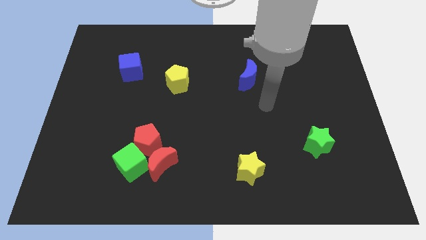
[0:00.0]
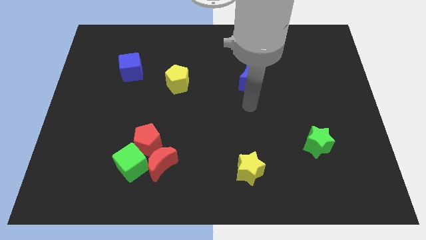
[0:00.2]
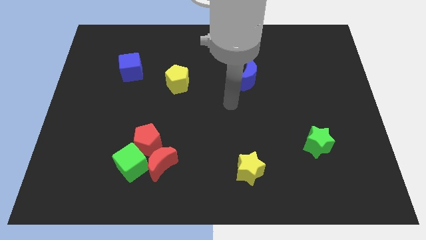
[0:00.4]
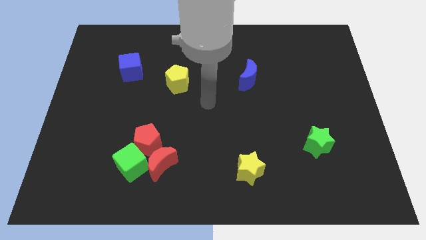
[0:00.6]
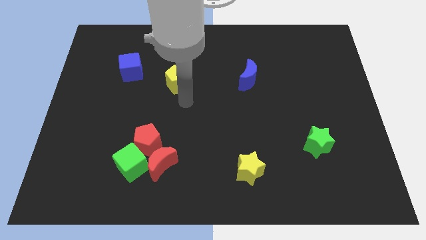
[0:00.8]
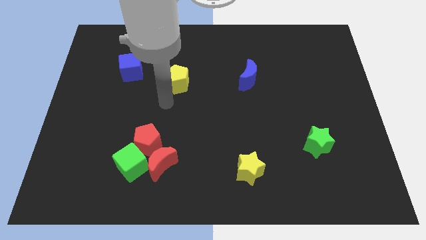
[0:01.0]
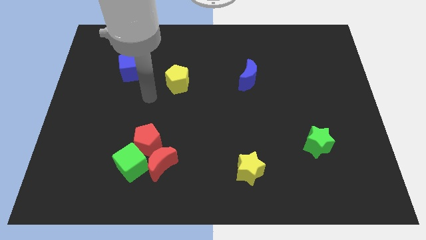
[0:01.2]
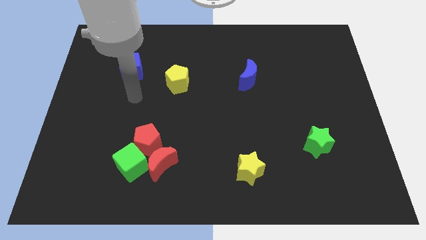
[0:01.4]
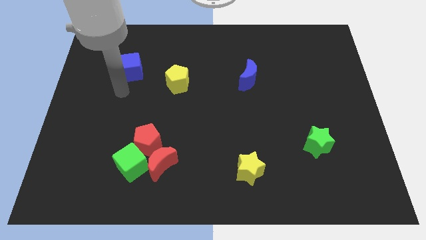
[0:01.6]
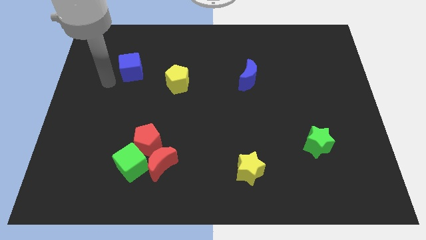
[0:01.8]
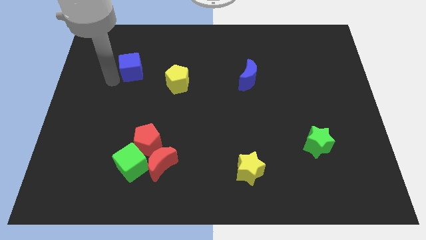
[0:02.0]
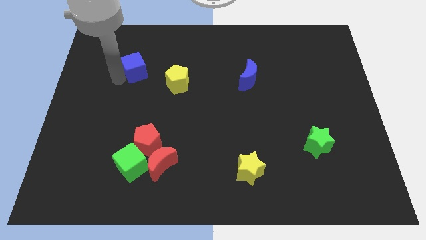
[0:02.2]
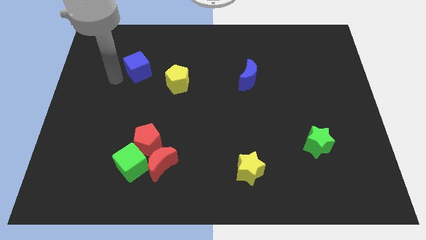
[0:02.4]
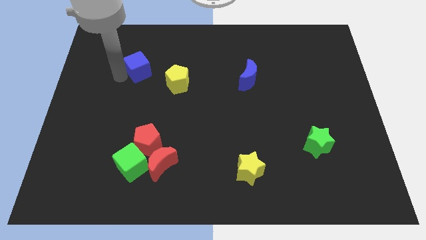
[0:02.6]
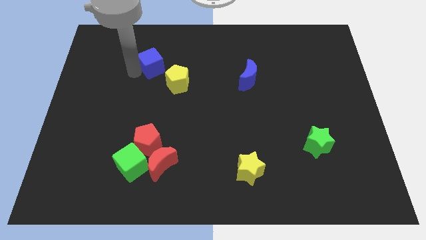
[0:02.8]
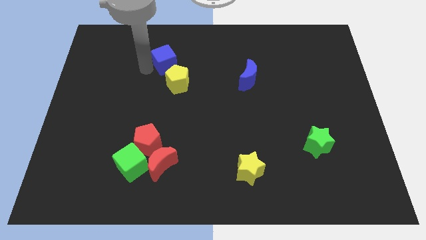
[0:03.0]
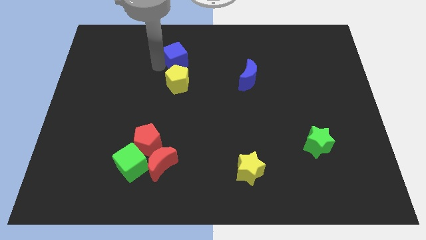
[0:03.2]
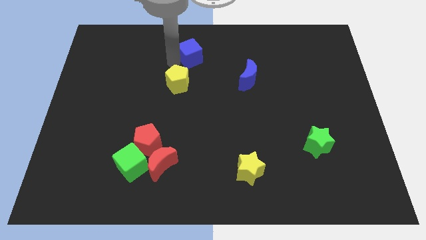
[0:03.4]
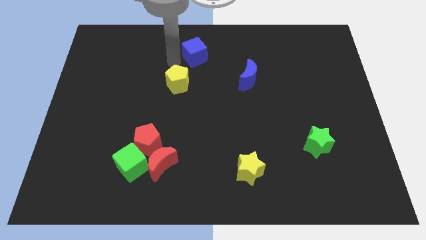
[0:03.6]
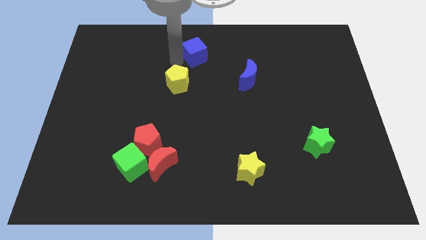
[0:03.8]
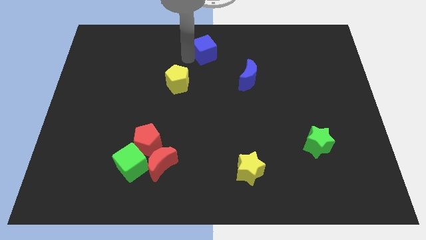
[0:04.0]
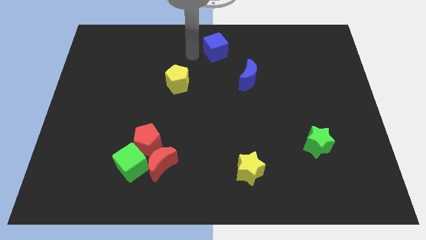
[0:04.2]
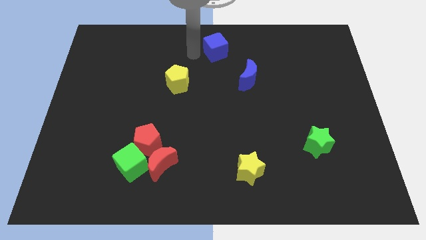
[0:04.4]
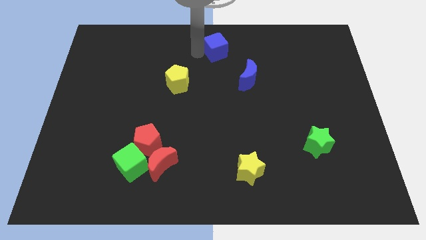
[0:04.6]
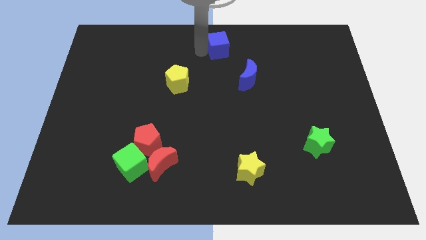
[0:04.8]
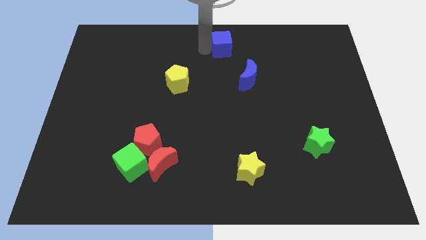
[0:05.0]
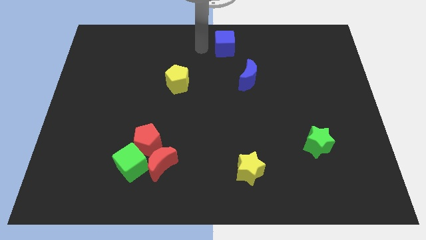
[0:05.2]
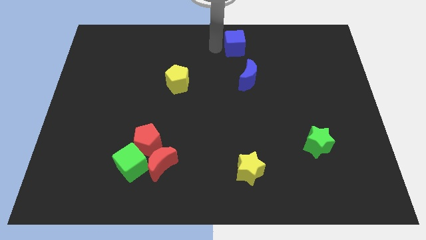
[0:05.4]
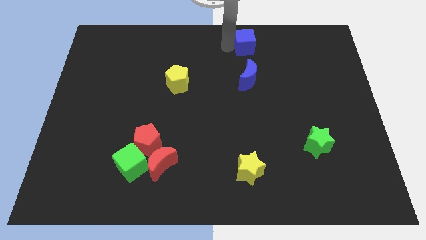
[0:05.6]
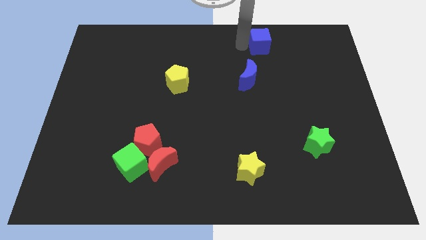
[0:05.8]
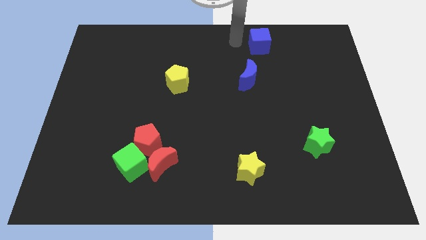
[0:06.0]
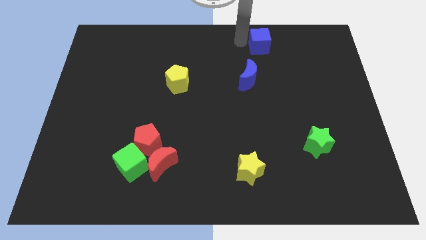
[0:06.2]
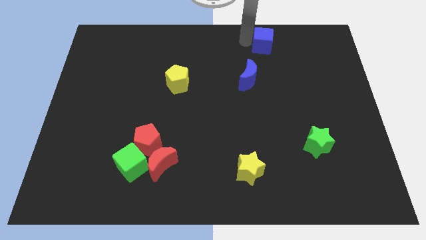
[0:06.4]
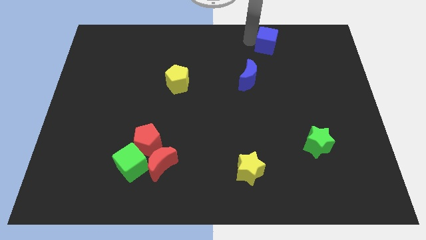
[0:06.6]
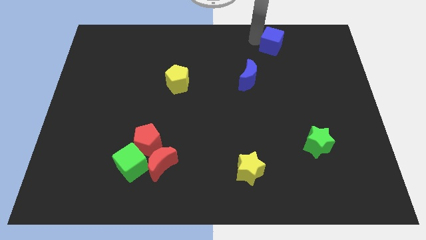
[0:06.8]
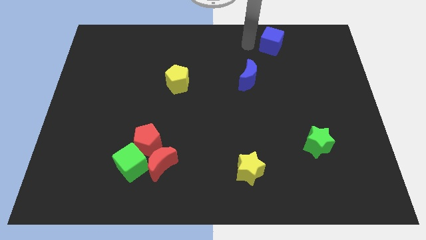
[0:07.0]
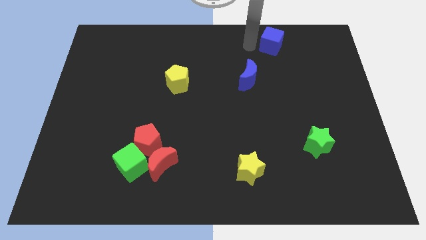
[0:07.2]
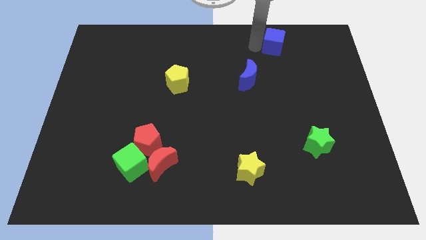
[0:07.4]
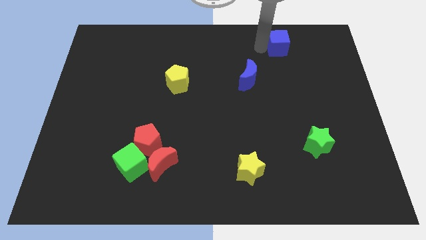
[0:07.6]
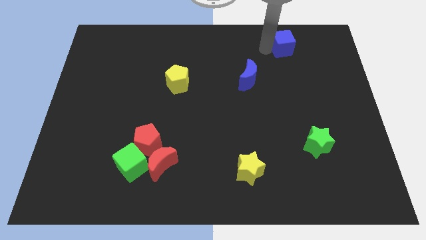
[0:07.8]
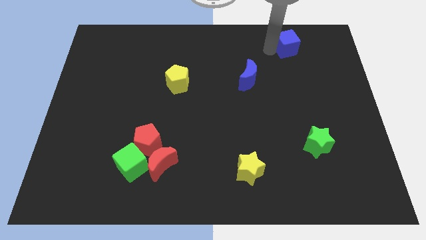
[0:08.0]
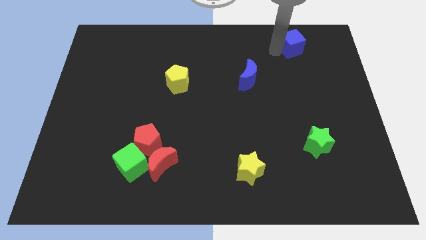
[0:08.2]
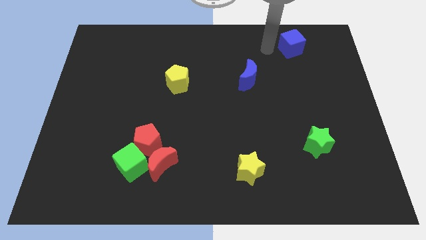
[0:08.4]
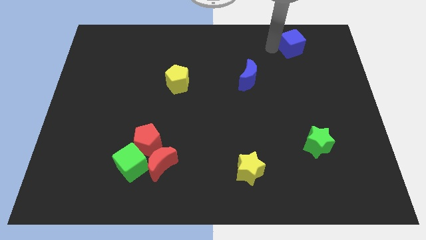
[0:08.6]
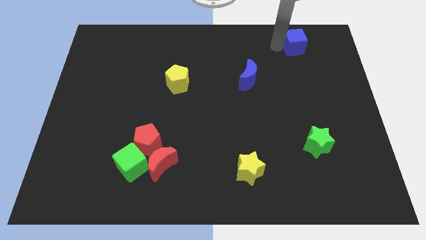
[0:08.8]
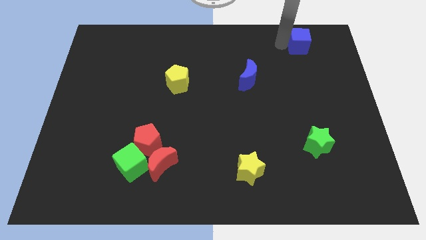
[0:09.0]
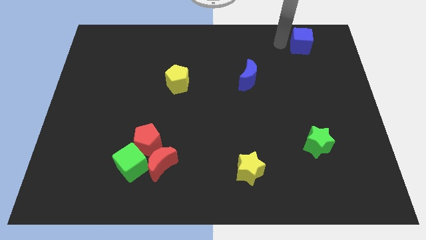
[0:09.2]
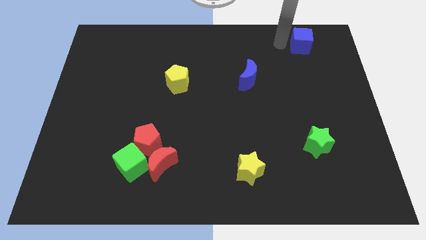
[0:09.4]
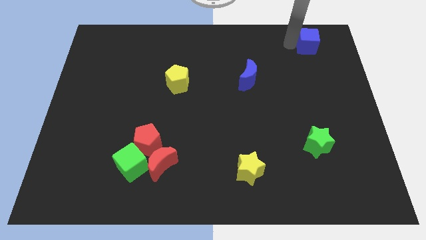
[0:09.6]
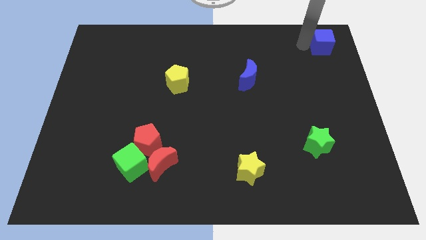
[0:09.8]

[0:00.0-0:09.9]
put the blue cube to the top right

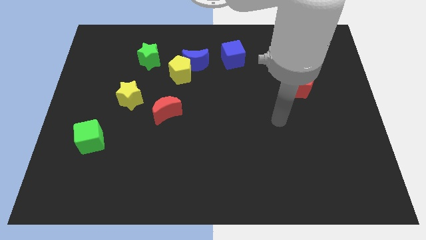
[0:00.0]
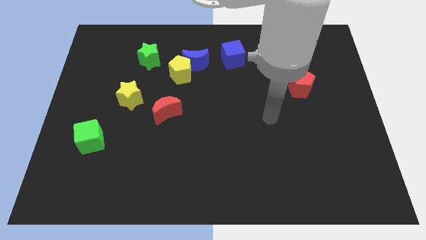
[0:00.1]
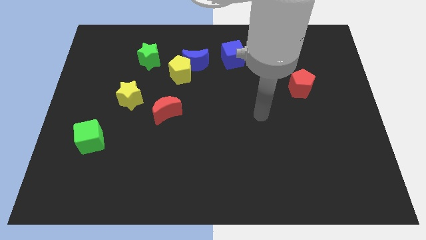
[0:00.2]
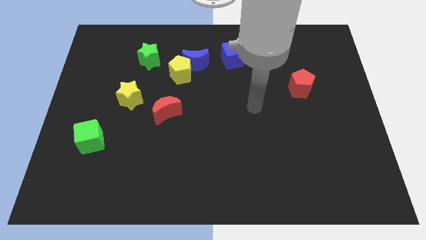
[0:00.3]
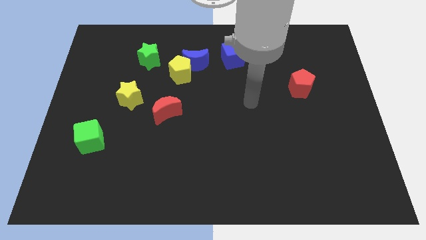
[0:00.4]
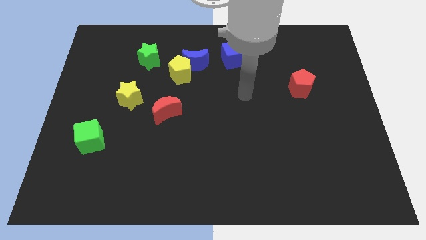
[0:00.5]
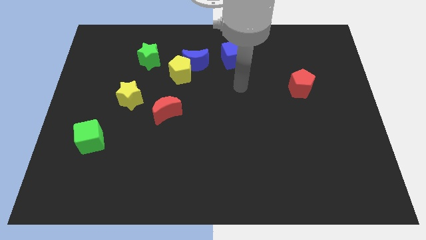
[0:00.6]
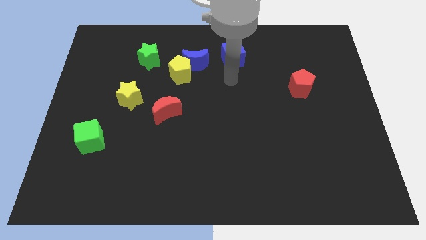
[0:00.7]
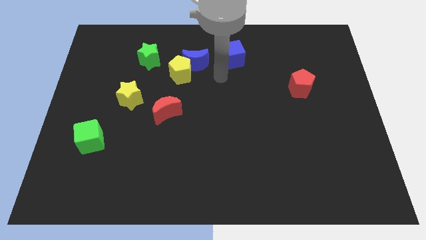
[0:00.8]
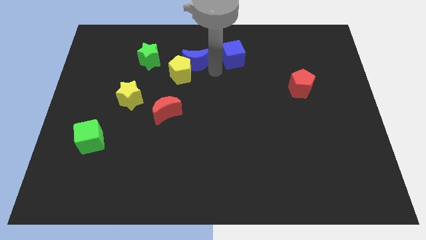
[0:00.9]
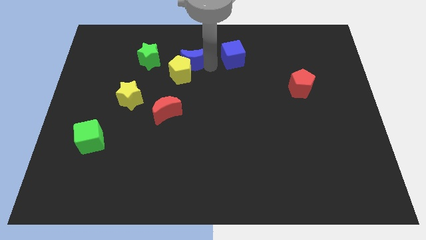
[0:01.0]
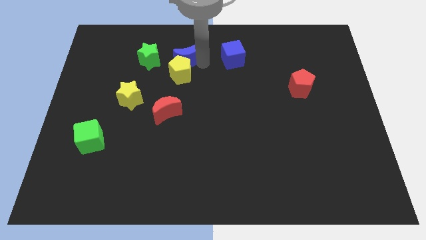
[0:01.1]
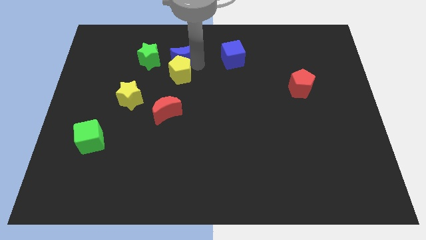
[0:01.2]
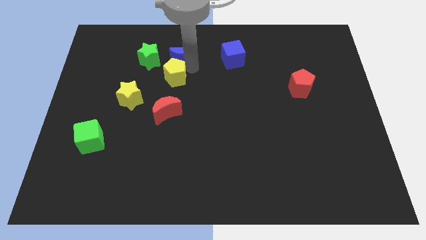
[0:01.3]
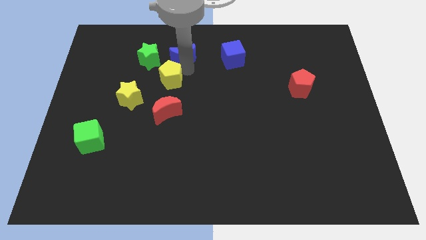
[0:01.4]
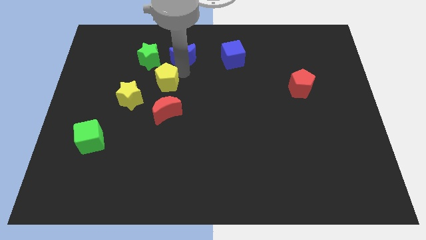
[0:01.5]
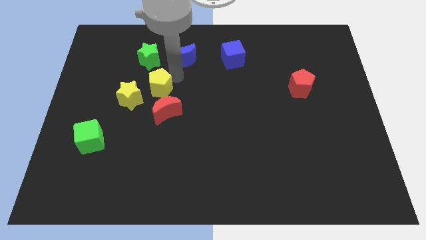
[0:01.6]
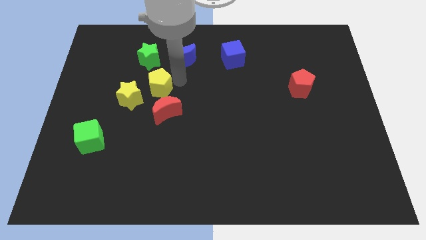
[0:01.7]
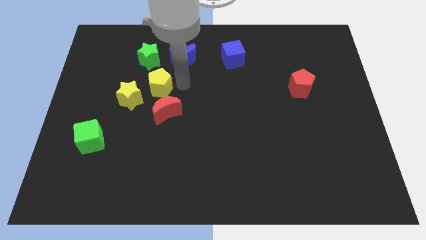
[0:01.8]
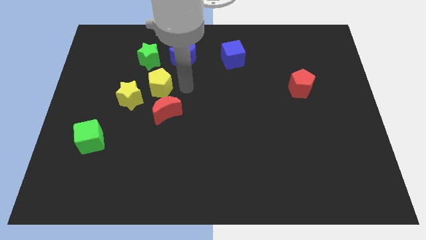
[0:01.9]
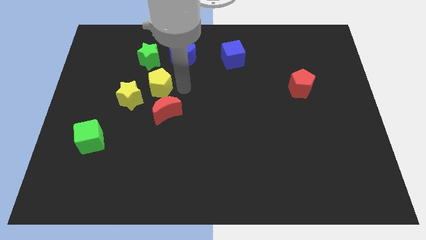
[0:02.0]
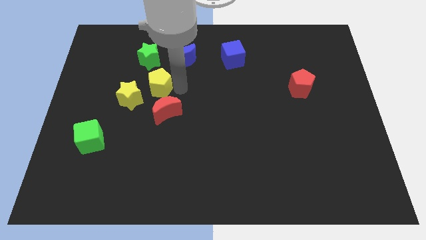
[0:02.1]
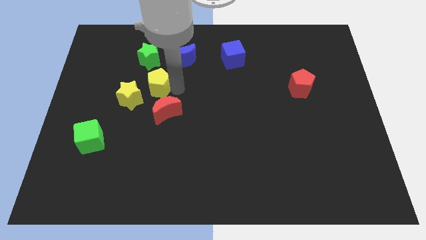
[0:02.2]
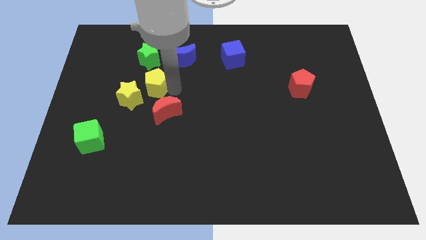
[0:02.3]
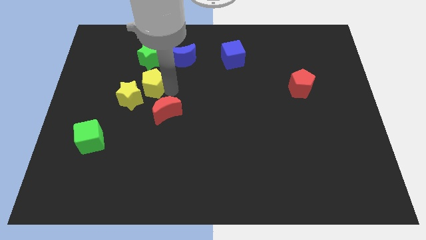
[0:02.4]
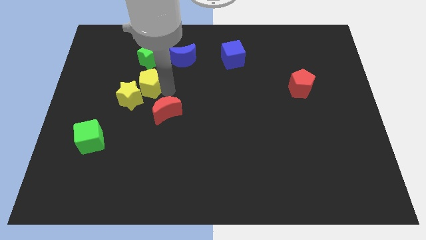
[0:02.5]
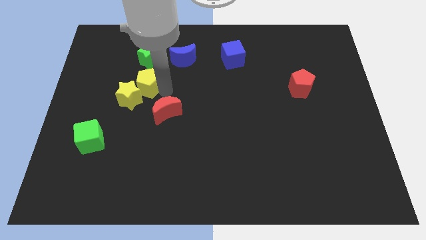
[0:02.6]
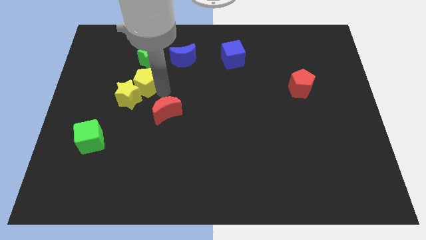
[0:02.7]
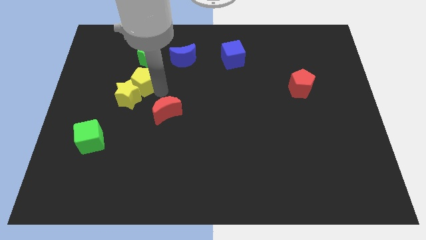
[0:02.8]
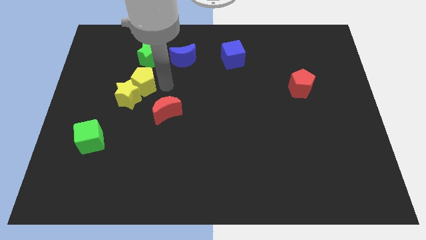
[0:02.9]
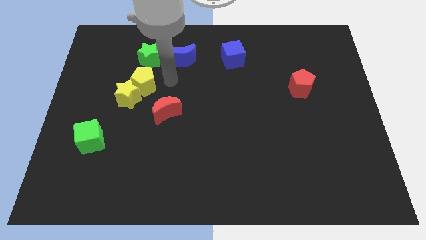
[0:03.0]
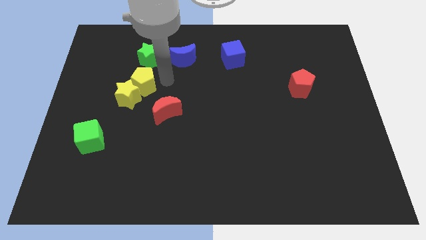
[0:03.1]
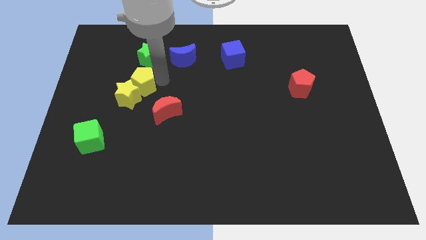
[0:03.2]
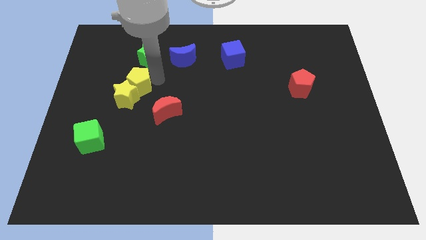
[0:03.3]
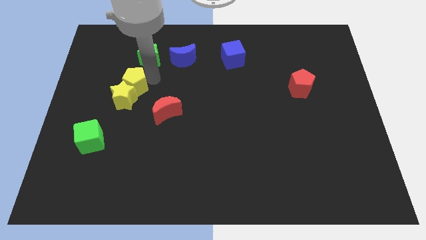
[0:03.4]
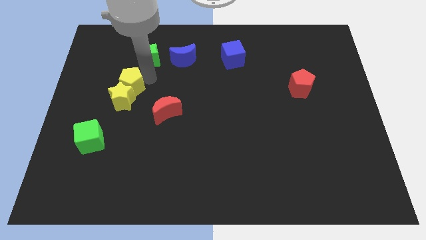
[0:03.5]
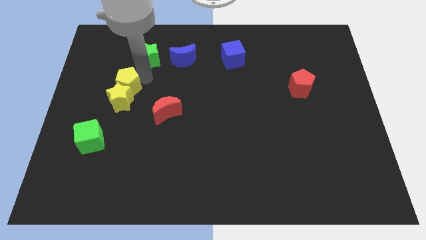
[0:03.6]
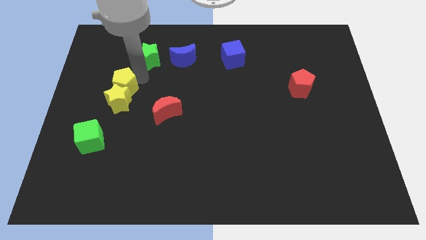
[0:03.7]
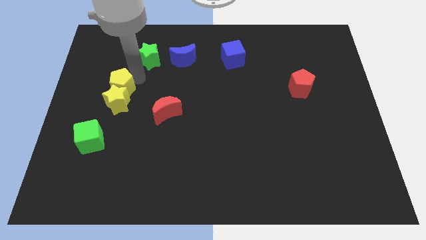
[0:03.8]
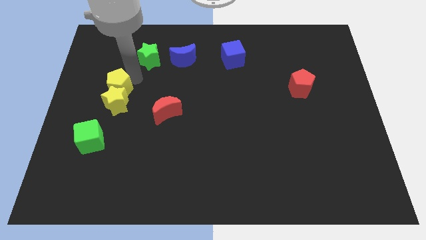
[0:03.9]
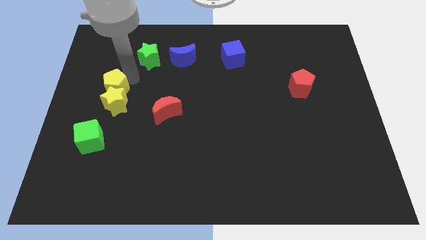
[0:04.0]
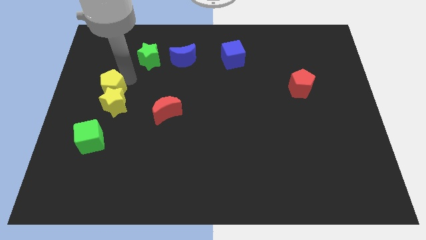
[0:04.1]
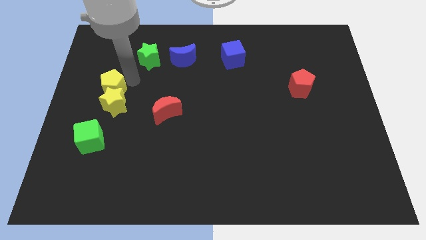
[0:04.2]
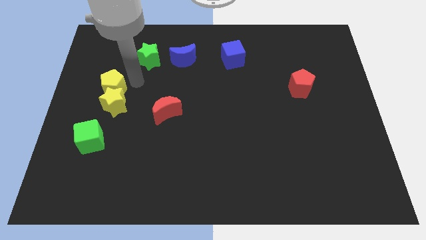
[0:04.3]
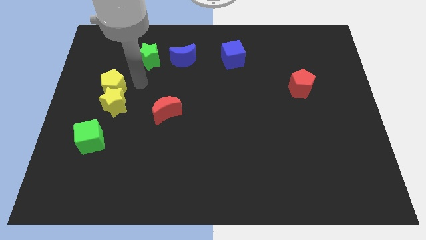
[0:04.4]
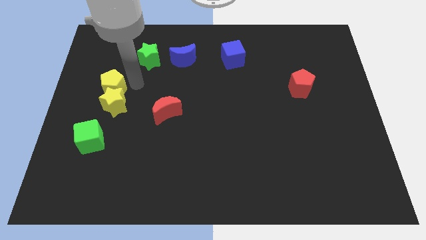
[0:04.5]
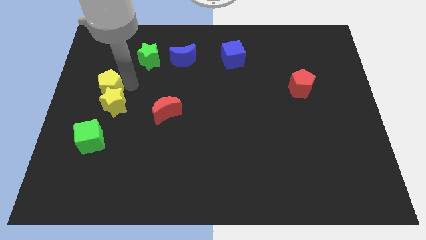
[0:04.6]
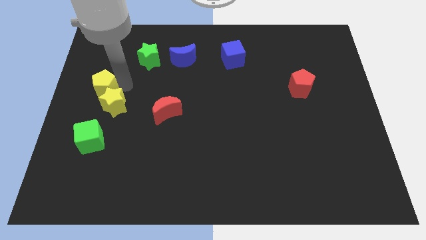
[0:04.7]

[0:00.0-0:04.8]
push the yellow pentagon to the center left
